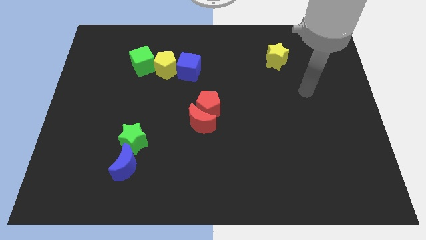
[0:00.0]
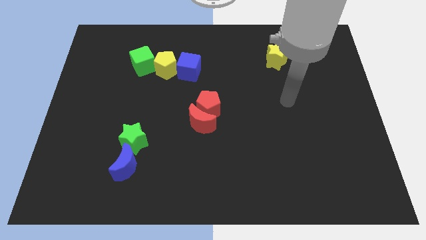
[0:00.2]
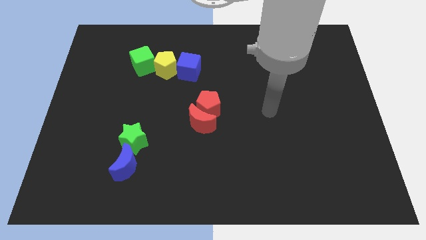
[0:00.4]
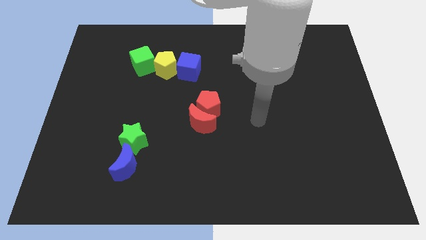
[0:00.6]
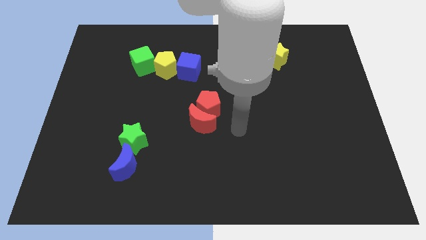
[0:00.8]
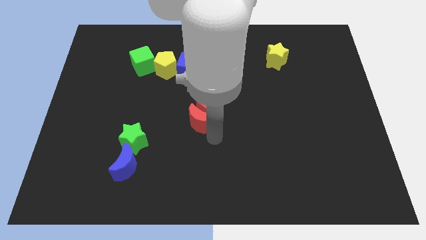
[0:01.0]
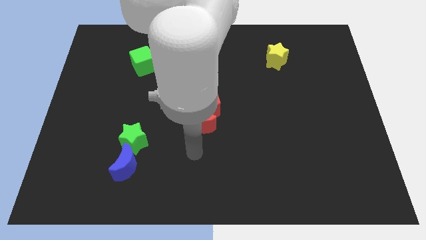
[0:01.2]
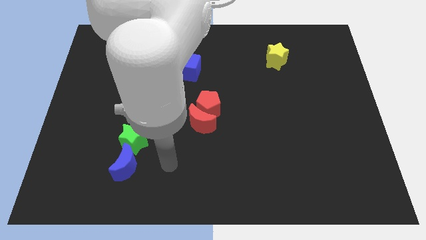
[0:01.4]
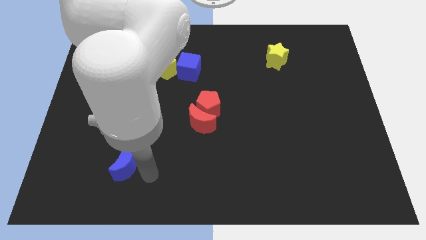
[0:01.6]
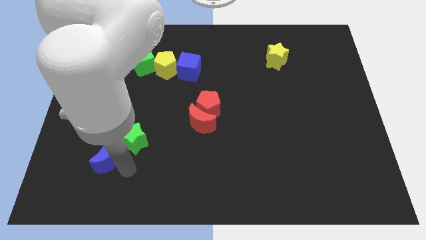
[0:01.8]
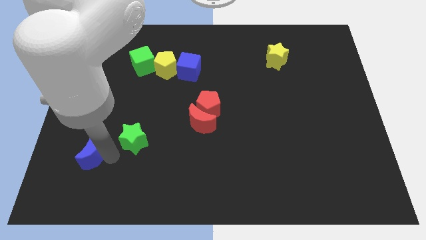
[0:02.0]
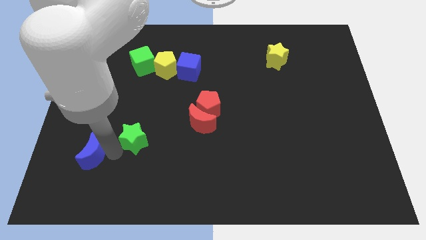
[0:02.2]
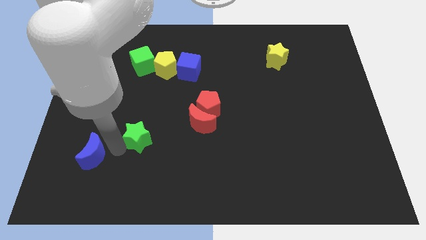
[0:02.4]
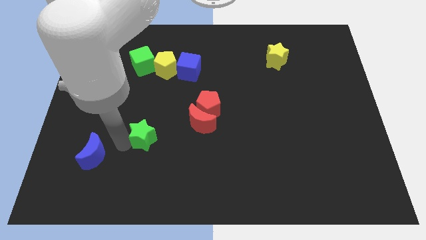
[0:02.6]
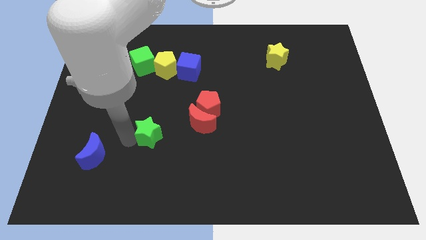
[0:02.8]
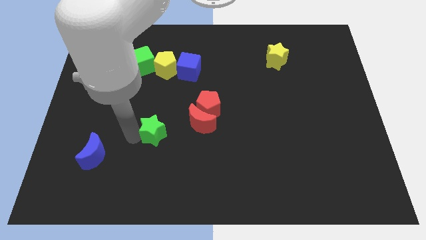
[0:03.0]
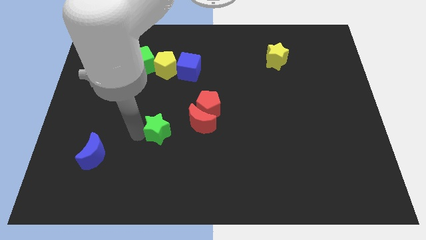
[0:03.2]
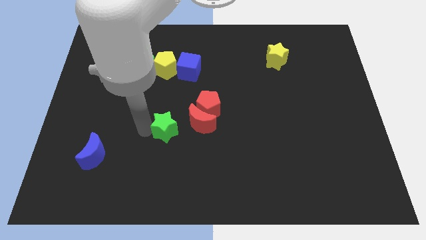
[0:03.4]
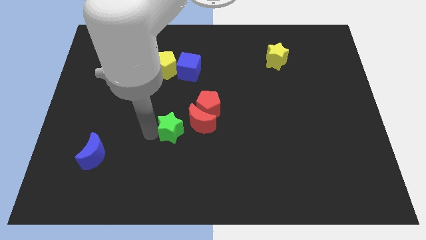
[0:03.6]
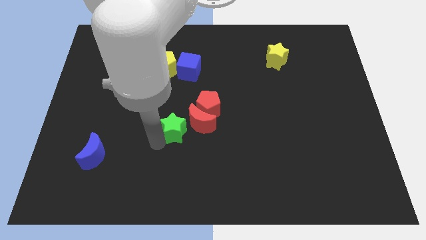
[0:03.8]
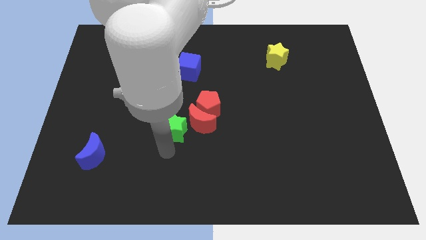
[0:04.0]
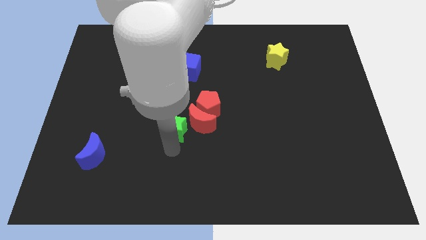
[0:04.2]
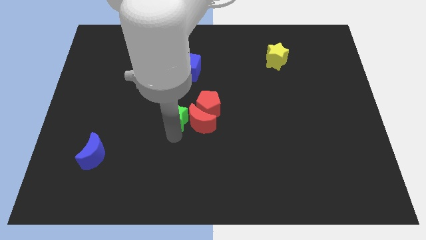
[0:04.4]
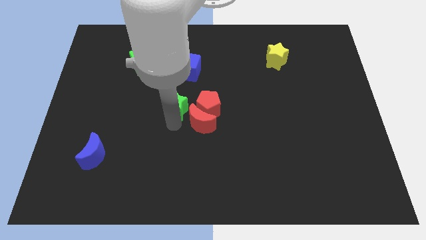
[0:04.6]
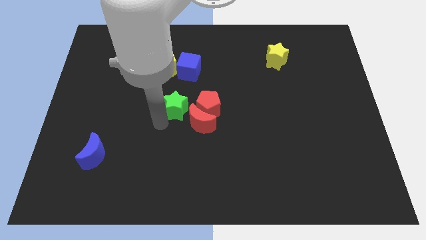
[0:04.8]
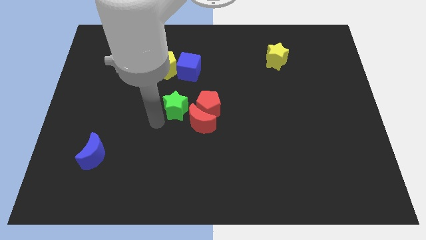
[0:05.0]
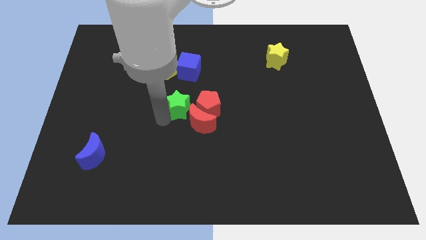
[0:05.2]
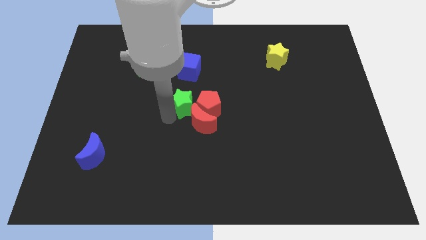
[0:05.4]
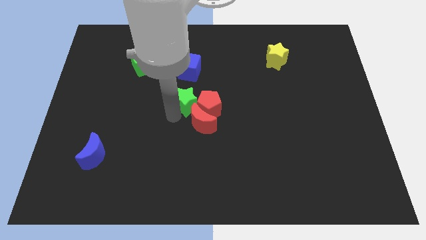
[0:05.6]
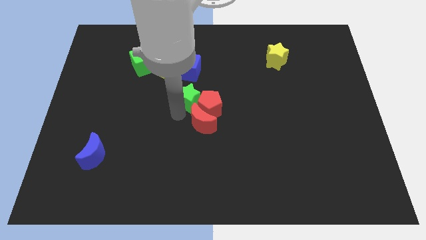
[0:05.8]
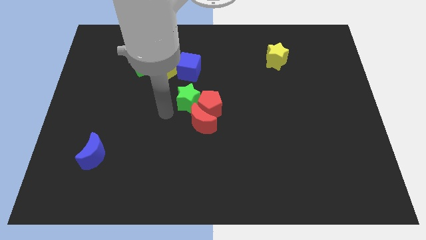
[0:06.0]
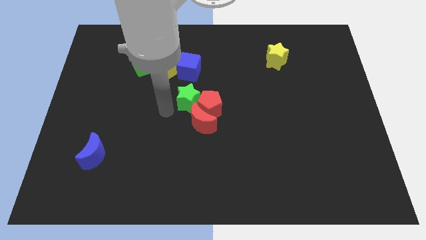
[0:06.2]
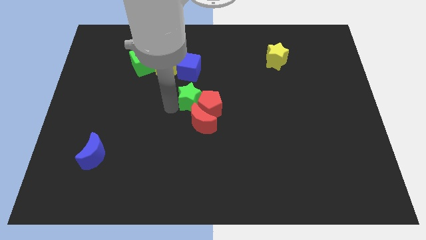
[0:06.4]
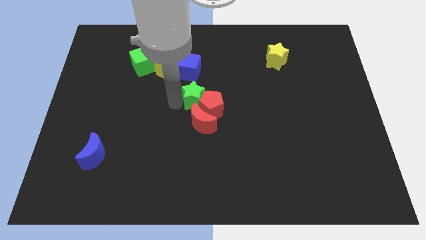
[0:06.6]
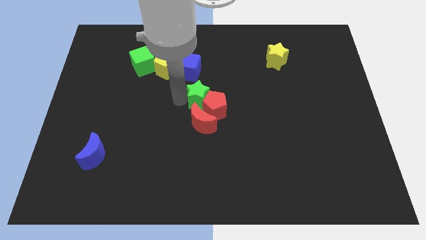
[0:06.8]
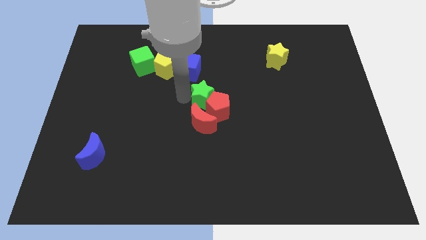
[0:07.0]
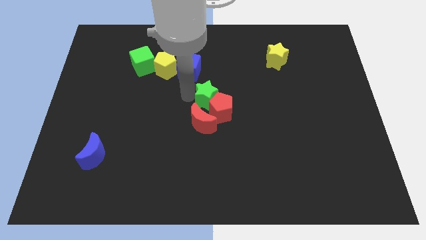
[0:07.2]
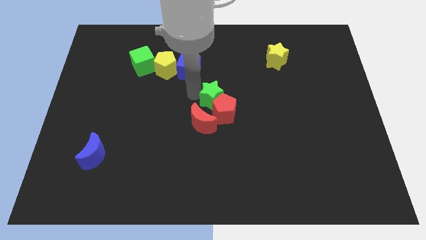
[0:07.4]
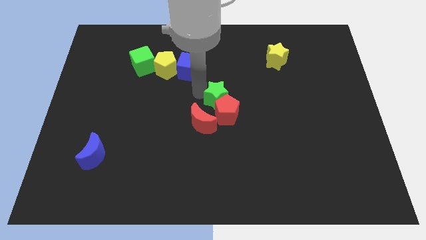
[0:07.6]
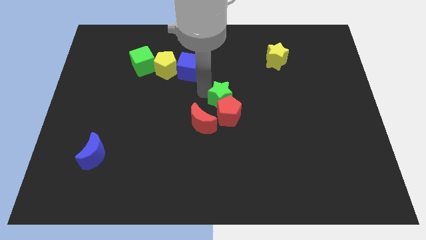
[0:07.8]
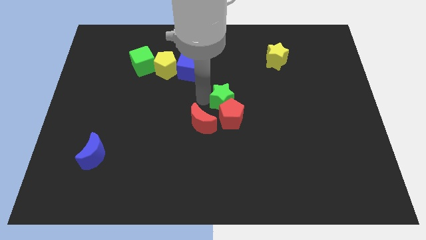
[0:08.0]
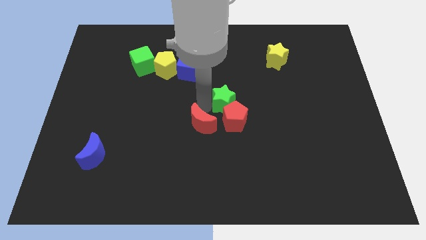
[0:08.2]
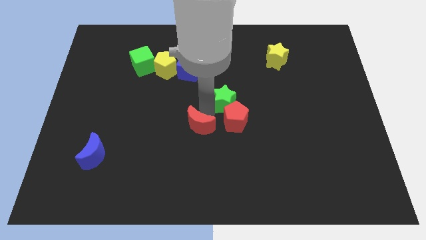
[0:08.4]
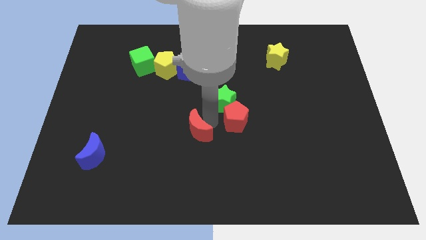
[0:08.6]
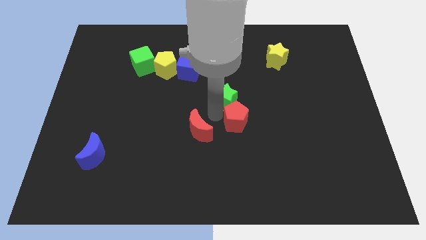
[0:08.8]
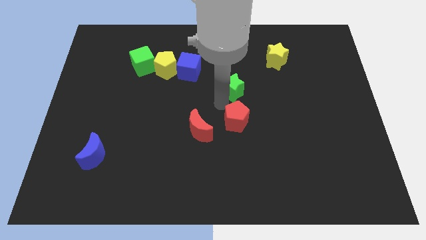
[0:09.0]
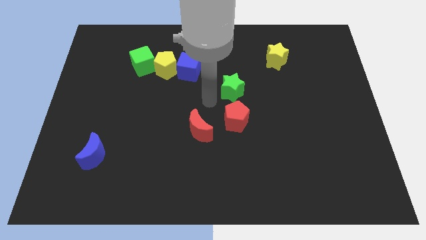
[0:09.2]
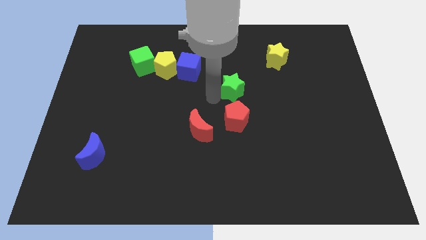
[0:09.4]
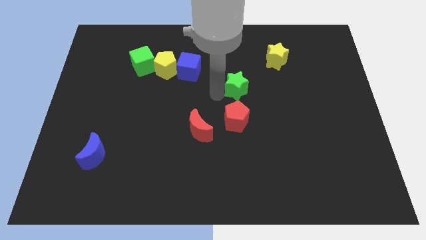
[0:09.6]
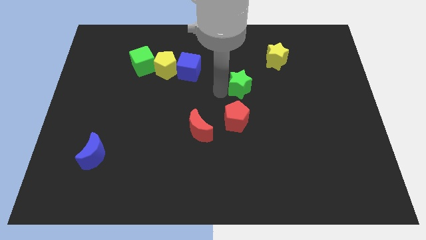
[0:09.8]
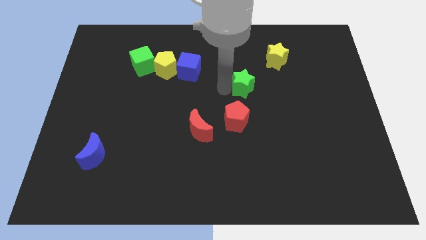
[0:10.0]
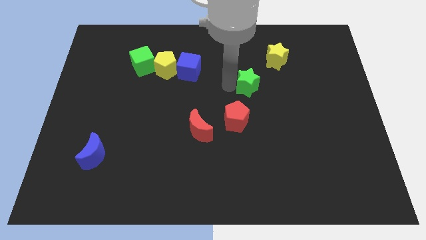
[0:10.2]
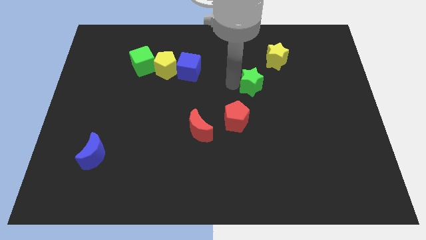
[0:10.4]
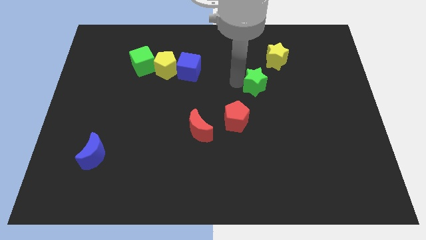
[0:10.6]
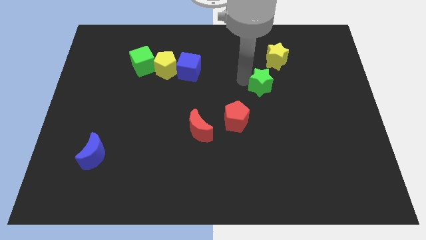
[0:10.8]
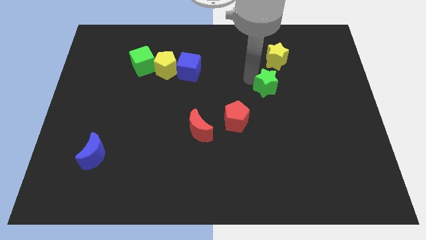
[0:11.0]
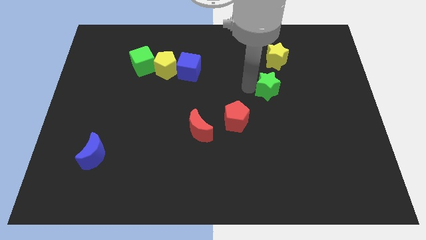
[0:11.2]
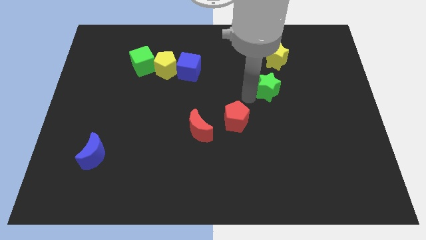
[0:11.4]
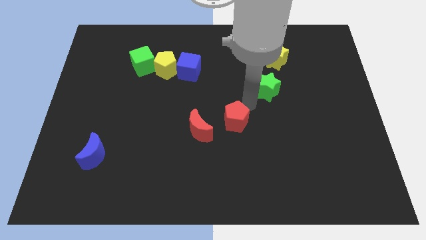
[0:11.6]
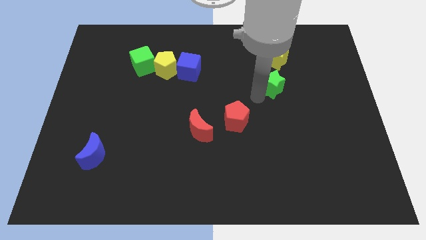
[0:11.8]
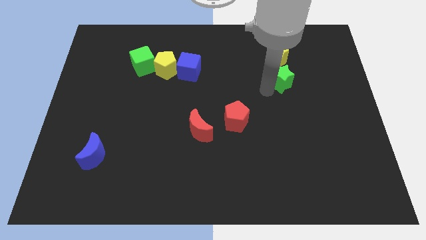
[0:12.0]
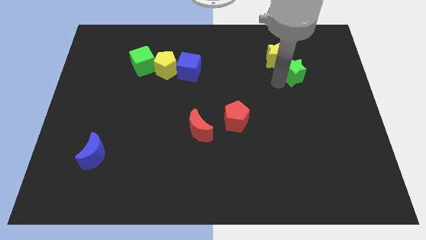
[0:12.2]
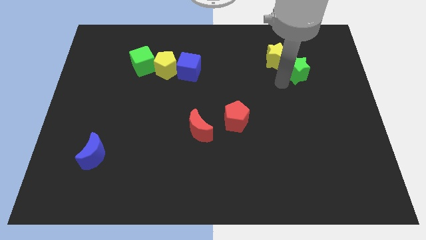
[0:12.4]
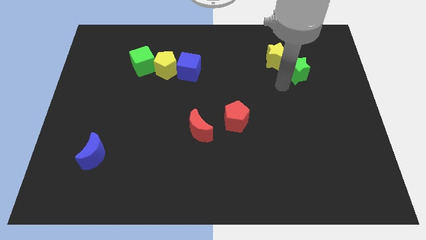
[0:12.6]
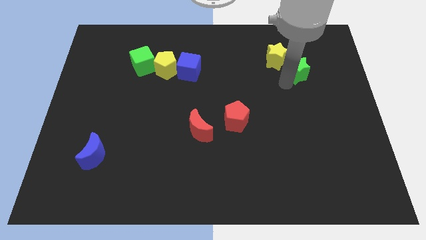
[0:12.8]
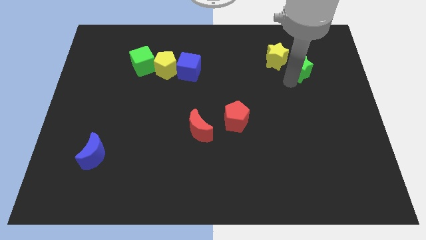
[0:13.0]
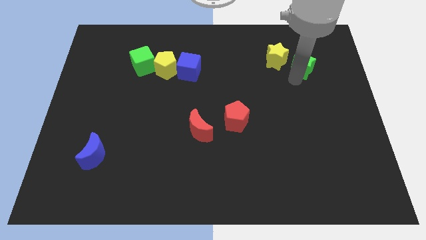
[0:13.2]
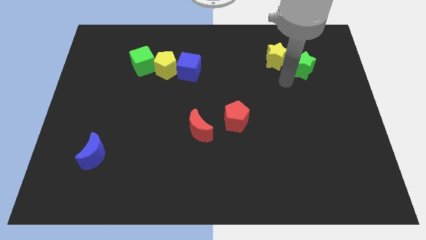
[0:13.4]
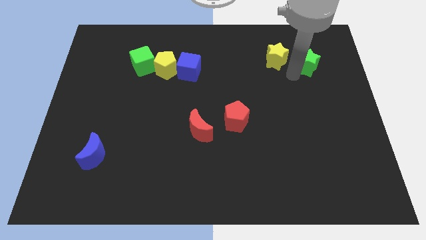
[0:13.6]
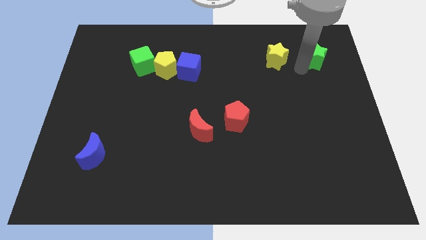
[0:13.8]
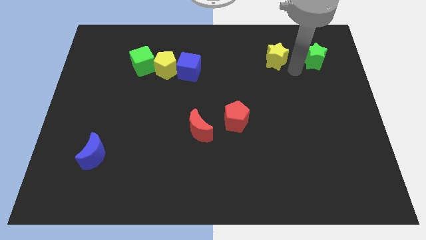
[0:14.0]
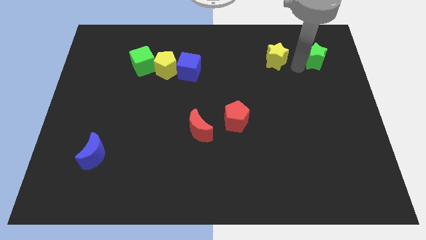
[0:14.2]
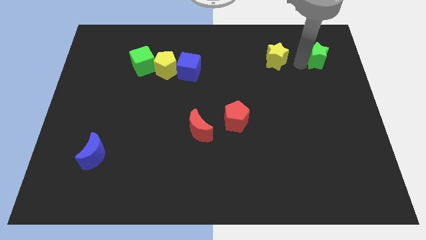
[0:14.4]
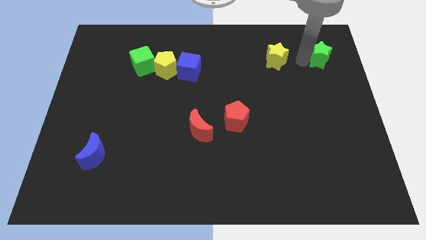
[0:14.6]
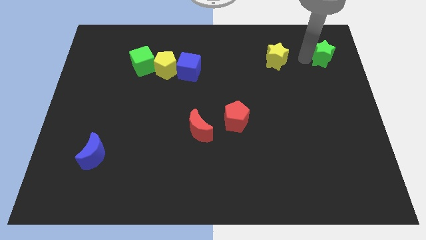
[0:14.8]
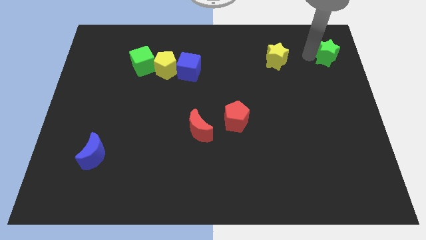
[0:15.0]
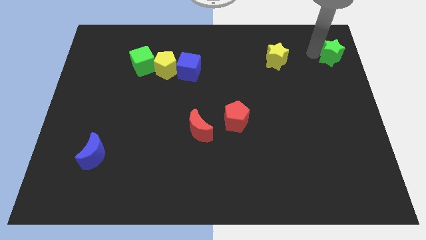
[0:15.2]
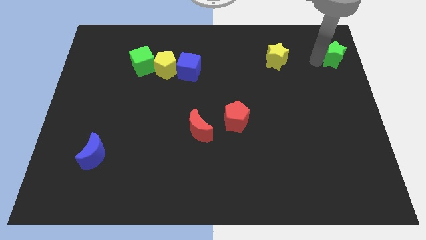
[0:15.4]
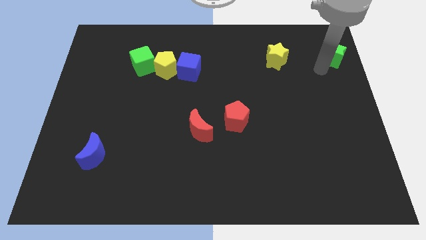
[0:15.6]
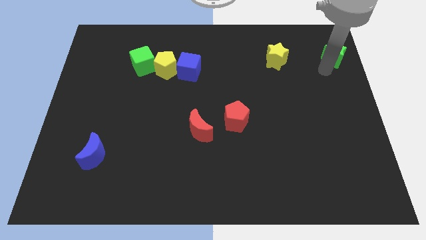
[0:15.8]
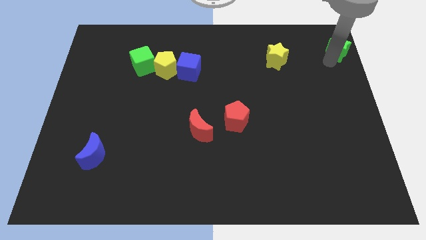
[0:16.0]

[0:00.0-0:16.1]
put the green star to the upper right corner
